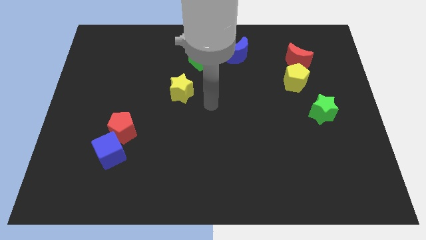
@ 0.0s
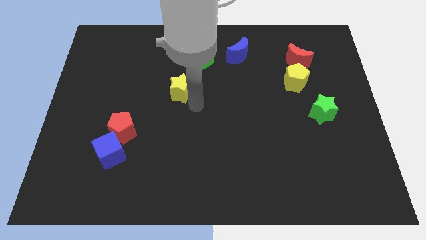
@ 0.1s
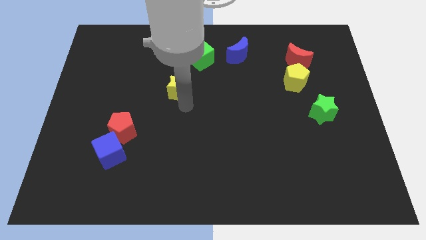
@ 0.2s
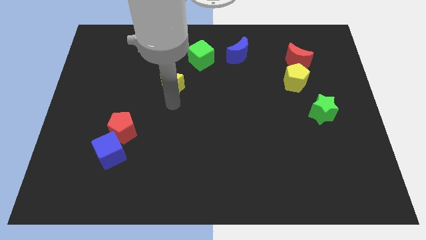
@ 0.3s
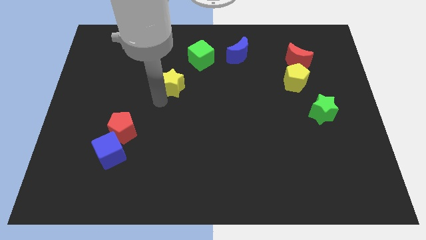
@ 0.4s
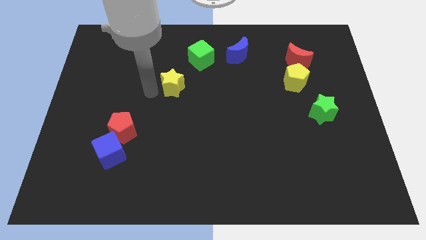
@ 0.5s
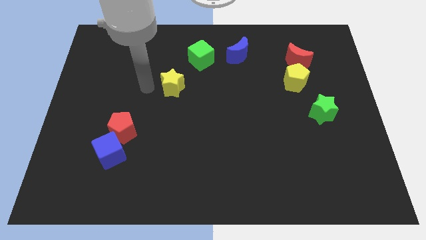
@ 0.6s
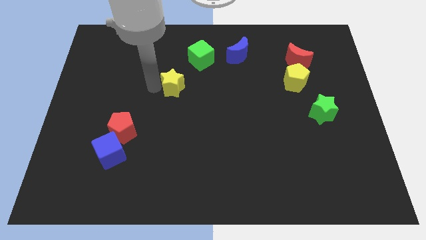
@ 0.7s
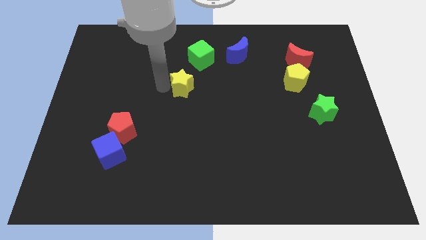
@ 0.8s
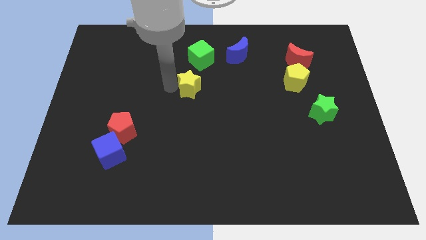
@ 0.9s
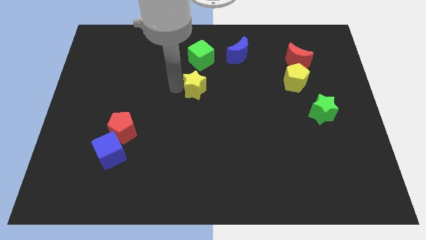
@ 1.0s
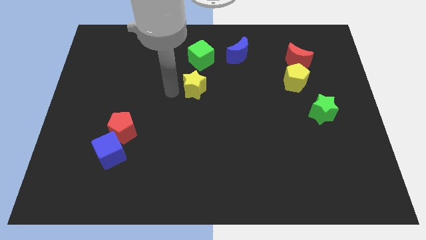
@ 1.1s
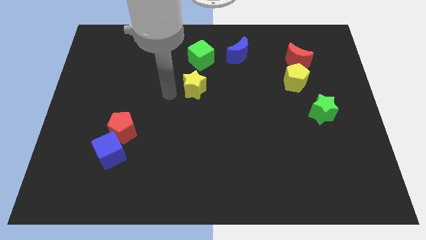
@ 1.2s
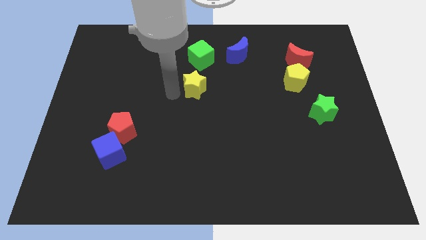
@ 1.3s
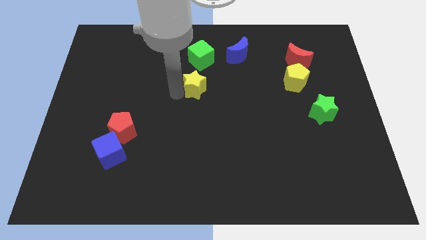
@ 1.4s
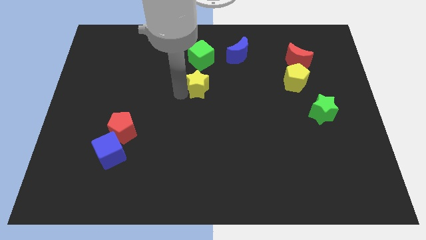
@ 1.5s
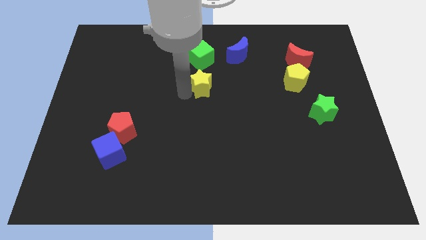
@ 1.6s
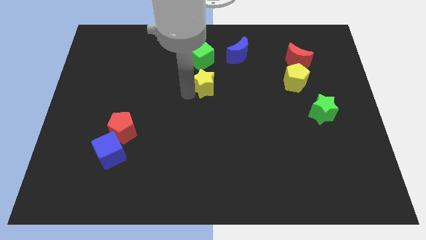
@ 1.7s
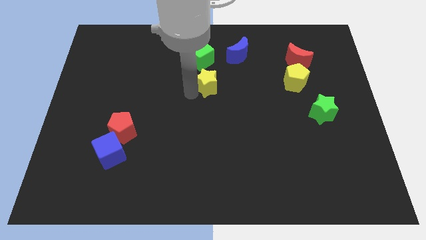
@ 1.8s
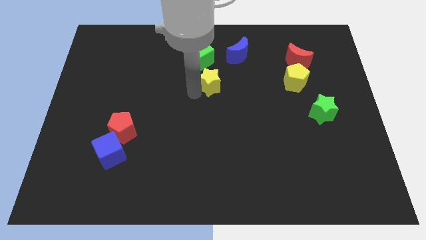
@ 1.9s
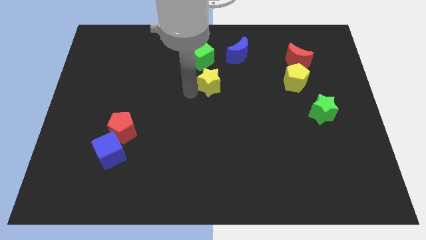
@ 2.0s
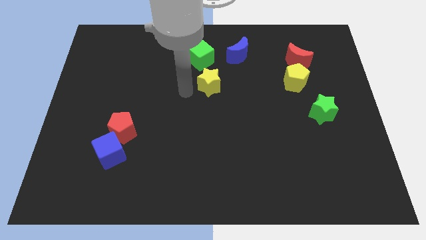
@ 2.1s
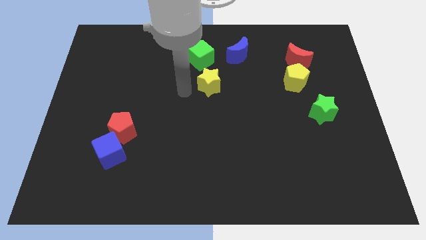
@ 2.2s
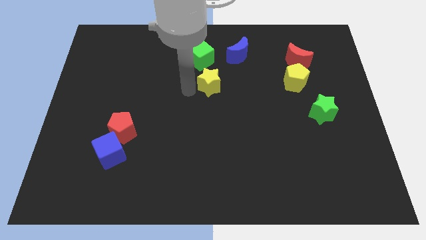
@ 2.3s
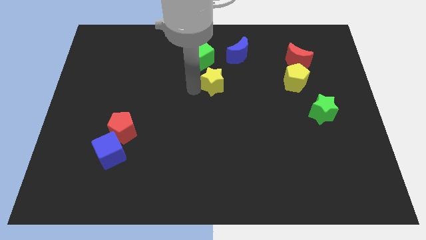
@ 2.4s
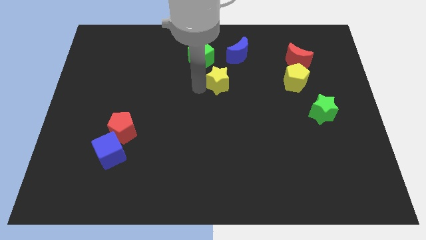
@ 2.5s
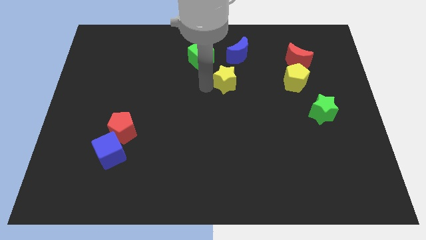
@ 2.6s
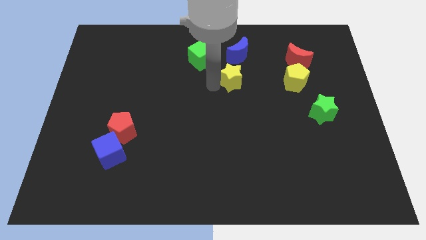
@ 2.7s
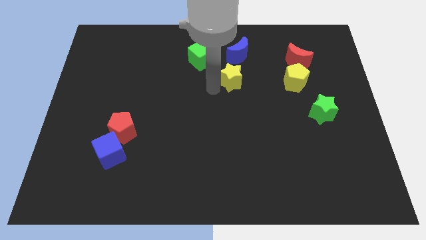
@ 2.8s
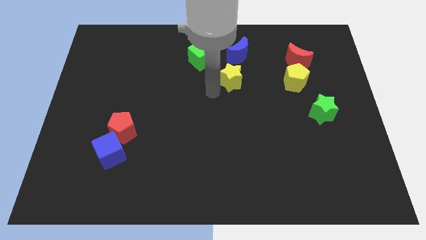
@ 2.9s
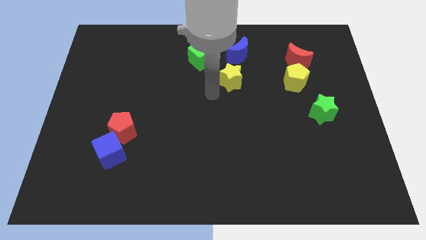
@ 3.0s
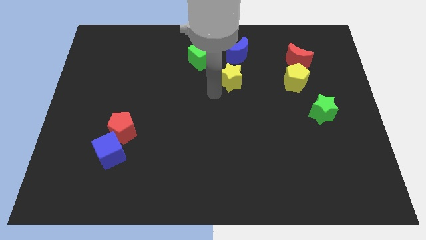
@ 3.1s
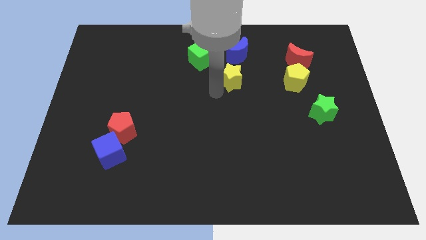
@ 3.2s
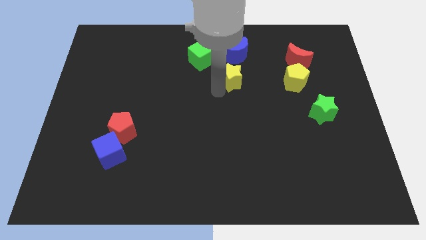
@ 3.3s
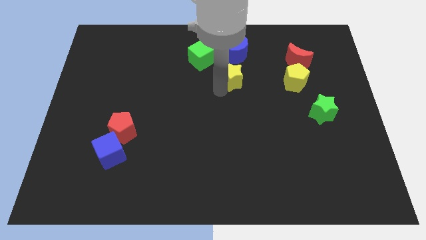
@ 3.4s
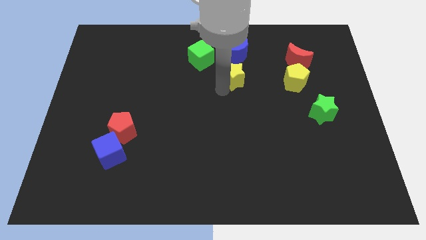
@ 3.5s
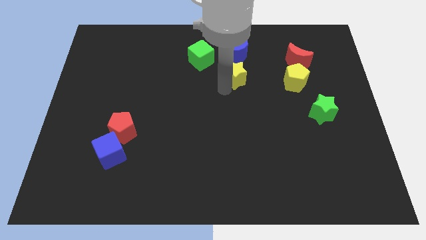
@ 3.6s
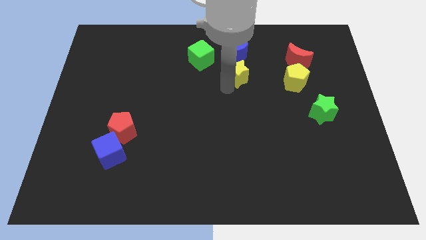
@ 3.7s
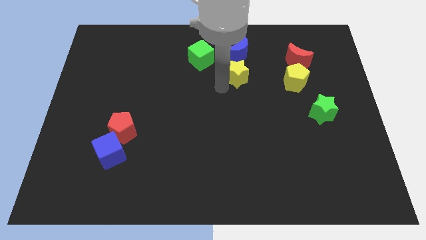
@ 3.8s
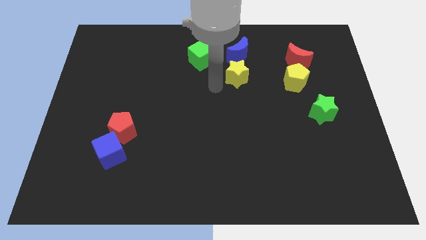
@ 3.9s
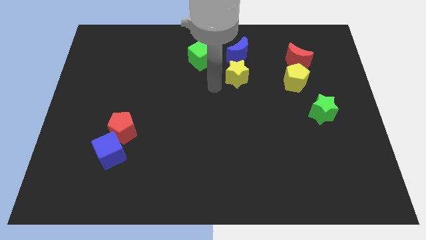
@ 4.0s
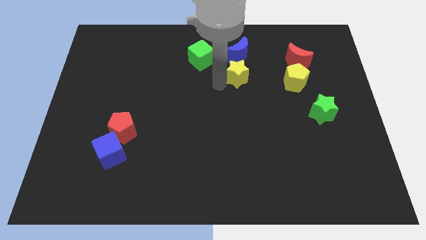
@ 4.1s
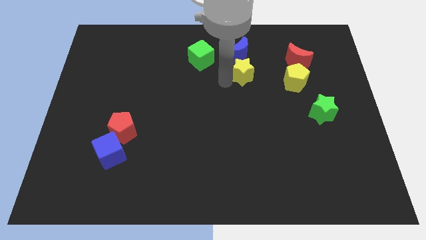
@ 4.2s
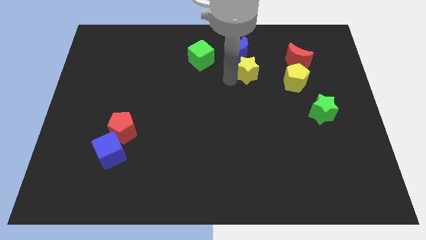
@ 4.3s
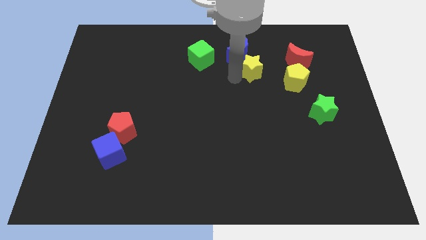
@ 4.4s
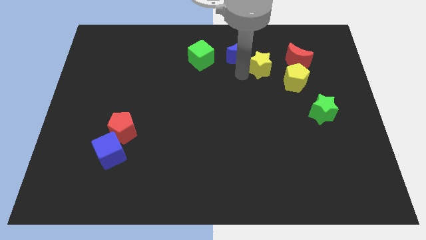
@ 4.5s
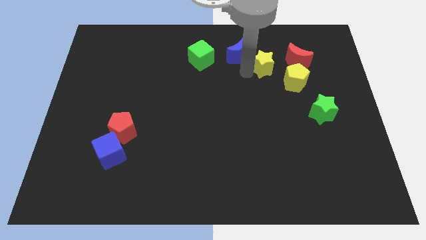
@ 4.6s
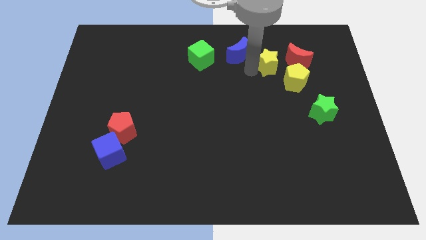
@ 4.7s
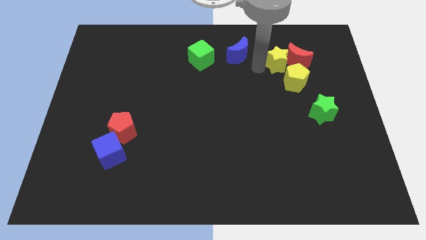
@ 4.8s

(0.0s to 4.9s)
slide the yellow star to the red moon

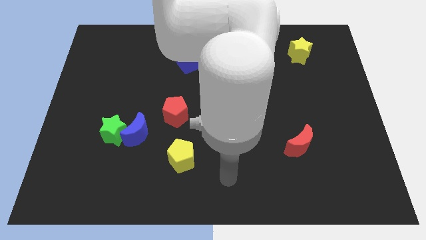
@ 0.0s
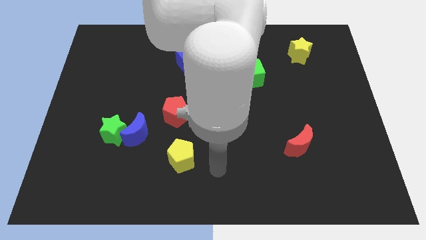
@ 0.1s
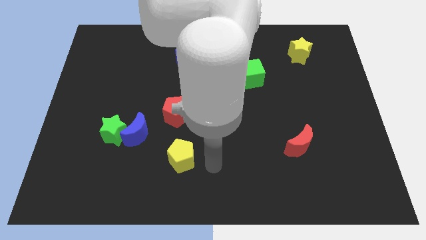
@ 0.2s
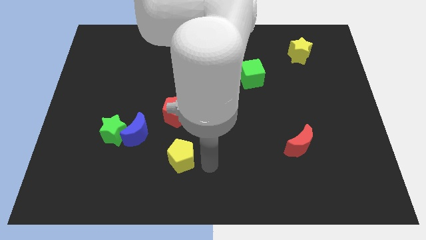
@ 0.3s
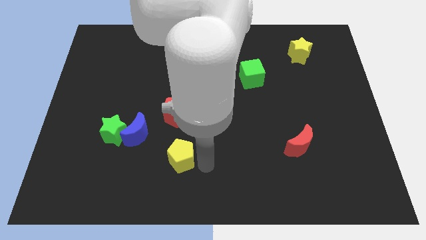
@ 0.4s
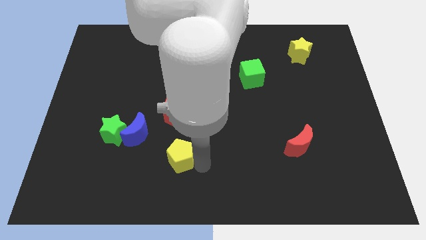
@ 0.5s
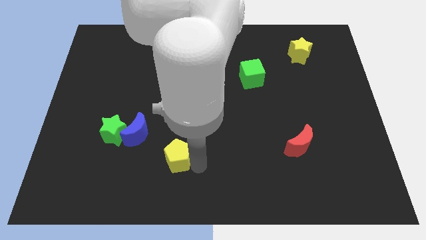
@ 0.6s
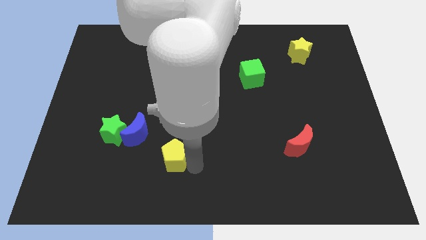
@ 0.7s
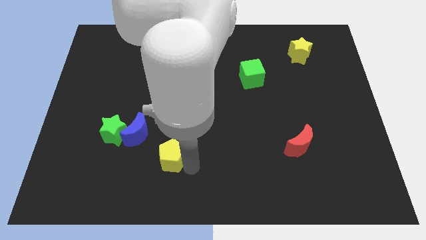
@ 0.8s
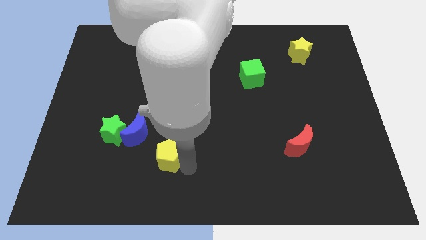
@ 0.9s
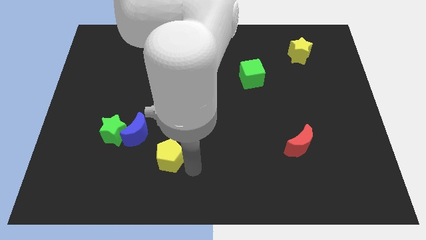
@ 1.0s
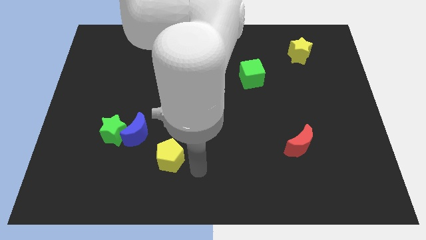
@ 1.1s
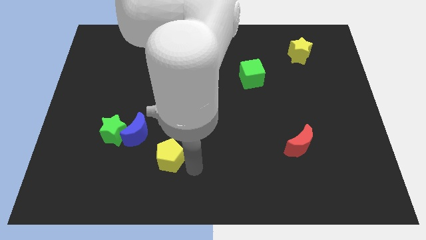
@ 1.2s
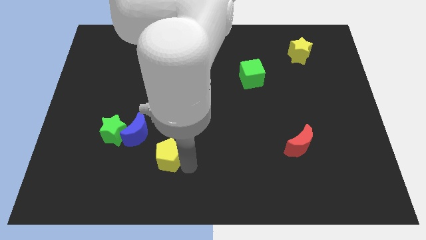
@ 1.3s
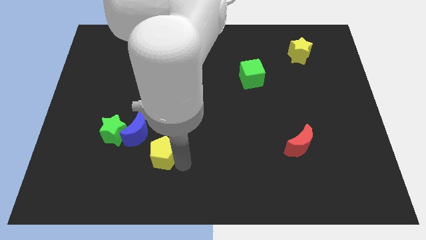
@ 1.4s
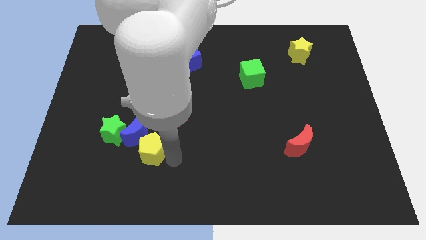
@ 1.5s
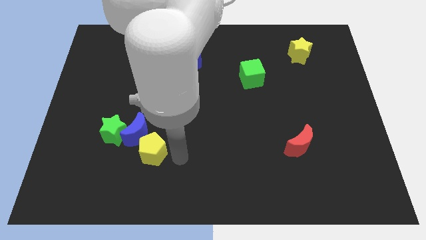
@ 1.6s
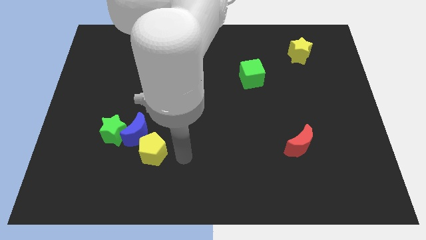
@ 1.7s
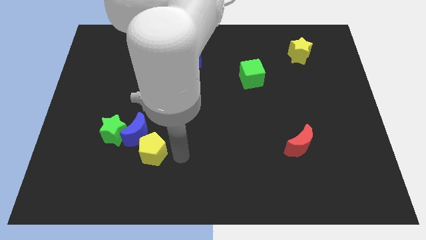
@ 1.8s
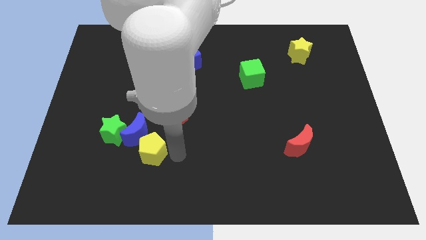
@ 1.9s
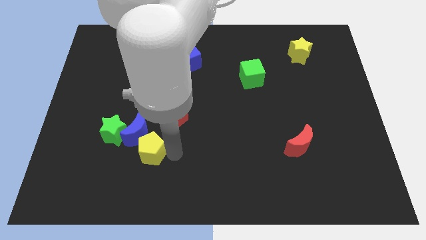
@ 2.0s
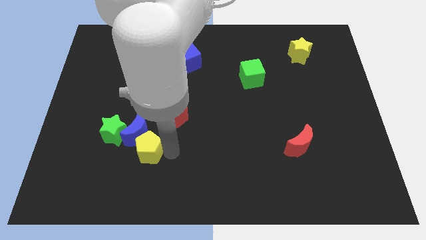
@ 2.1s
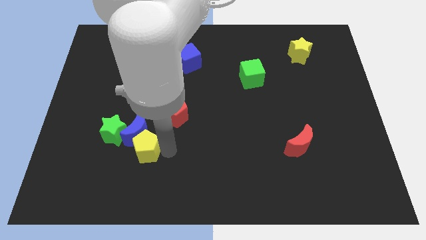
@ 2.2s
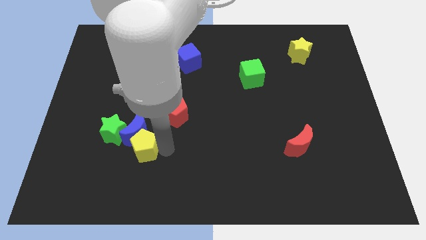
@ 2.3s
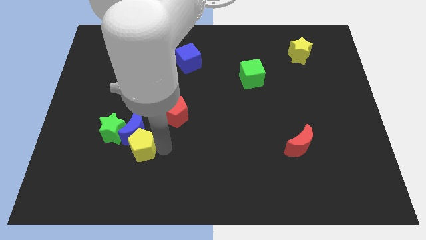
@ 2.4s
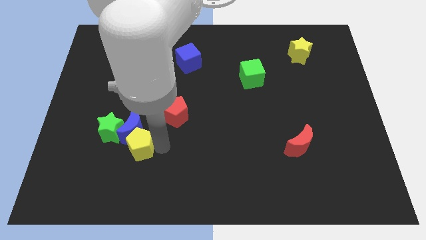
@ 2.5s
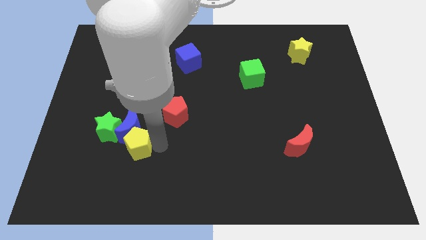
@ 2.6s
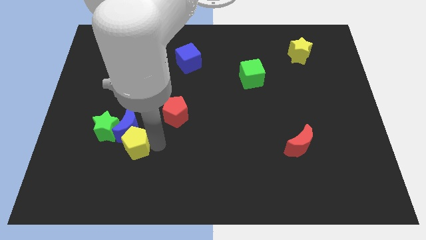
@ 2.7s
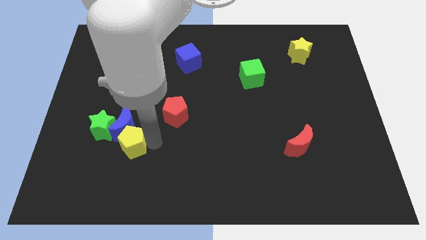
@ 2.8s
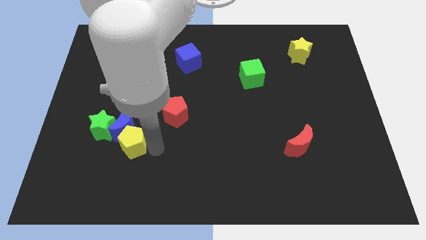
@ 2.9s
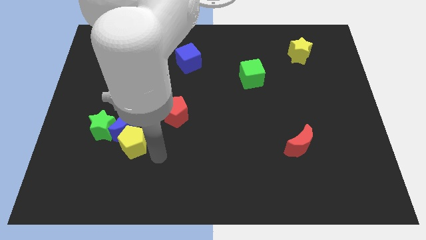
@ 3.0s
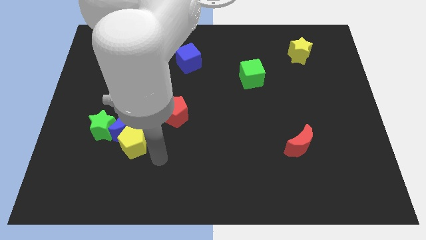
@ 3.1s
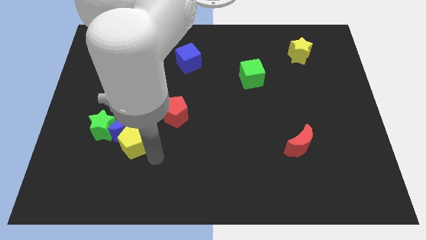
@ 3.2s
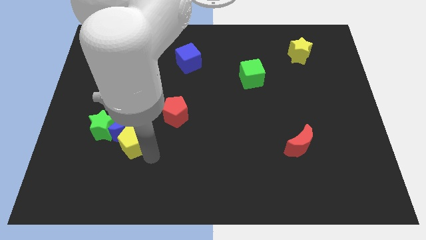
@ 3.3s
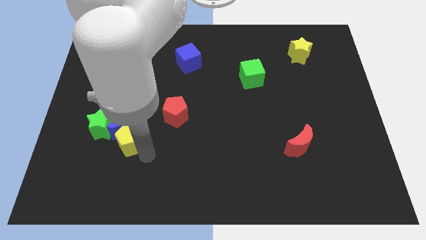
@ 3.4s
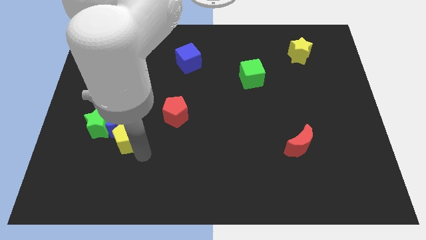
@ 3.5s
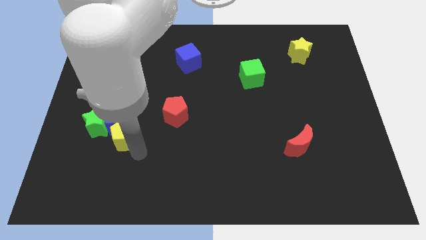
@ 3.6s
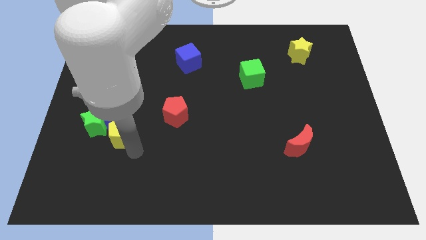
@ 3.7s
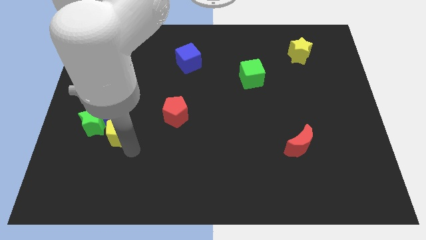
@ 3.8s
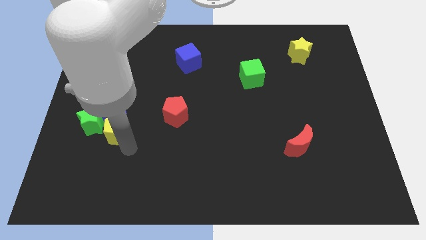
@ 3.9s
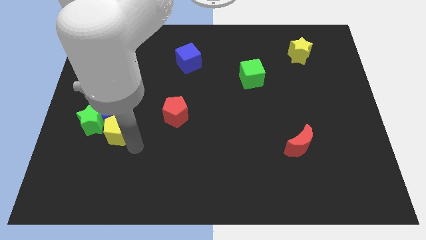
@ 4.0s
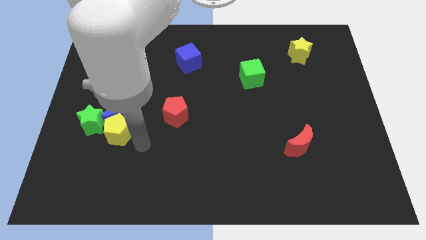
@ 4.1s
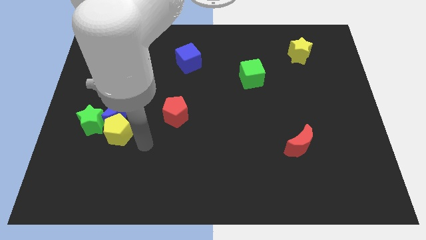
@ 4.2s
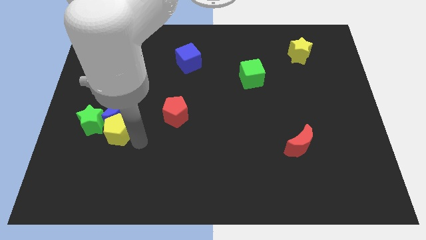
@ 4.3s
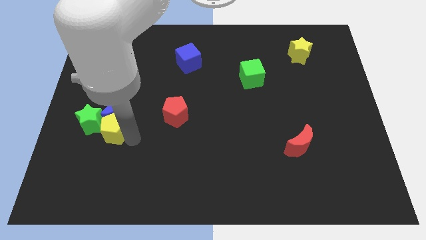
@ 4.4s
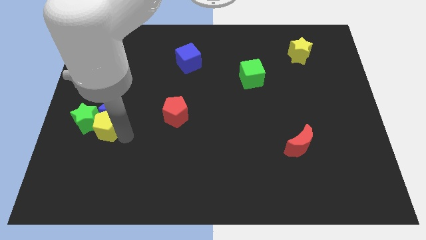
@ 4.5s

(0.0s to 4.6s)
slide the yellow pentagon close to the green star
